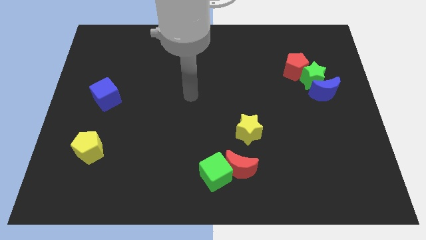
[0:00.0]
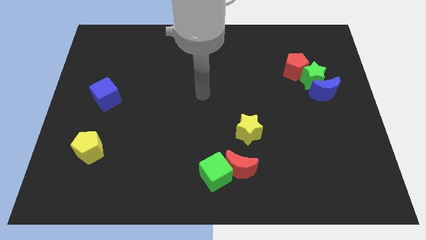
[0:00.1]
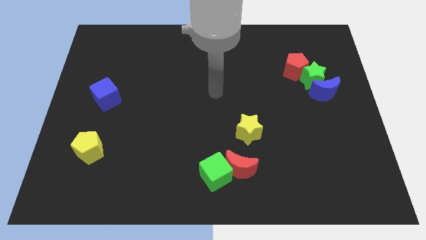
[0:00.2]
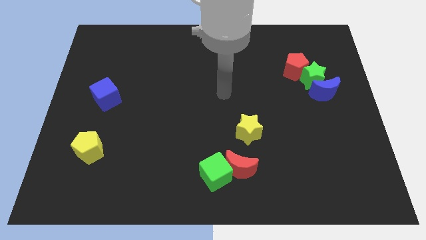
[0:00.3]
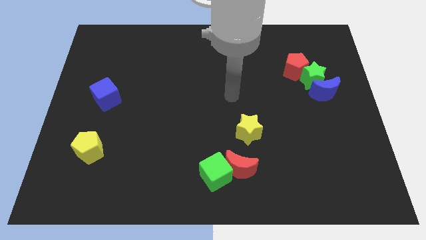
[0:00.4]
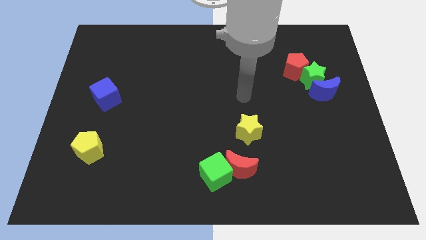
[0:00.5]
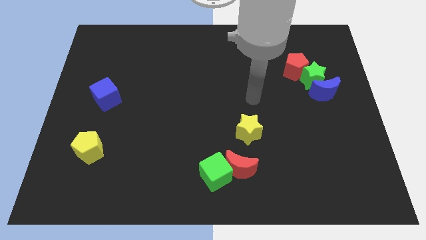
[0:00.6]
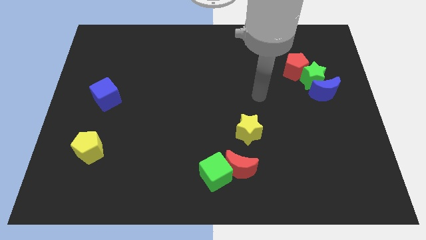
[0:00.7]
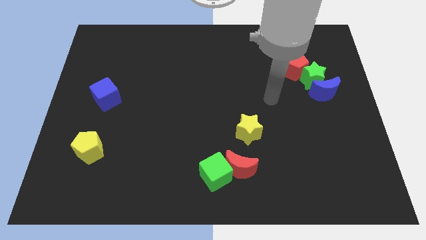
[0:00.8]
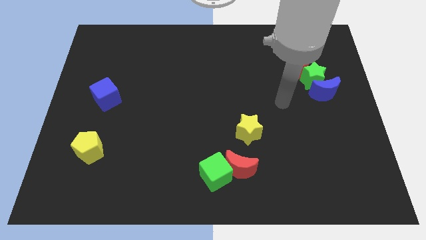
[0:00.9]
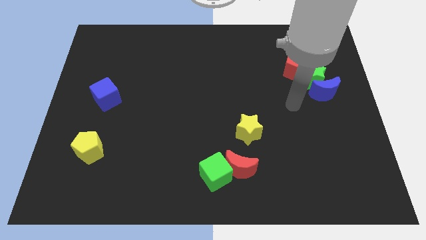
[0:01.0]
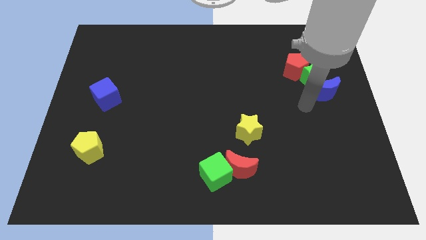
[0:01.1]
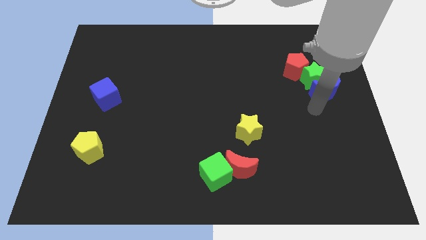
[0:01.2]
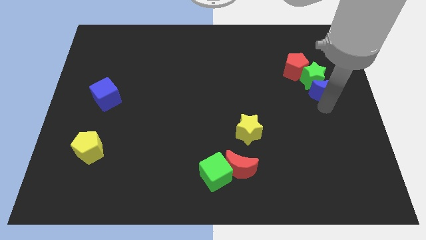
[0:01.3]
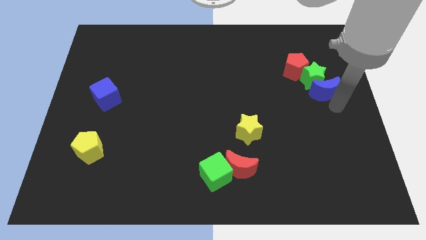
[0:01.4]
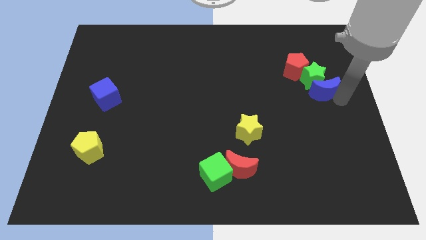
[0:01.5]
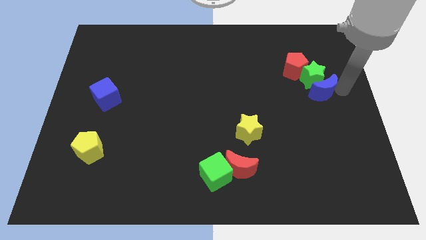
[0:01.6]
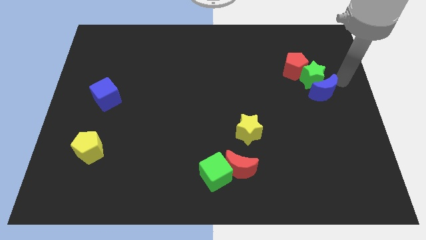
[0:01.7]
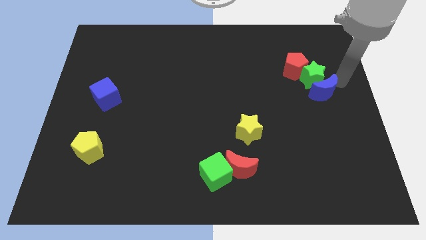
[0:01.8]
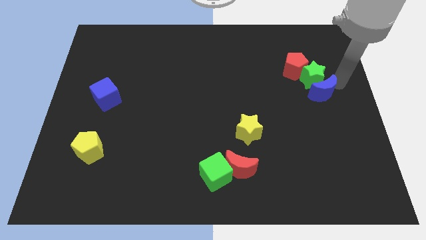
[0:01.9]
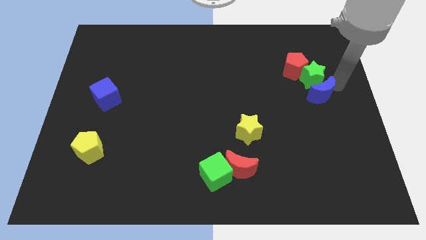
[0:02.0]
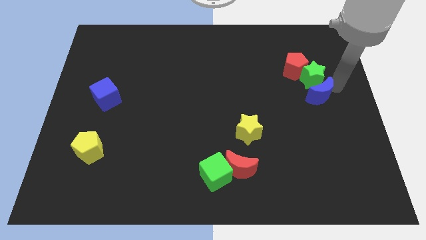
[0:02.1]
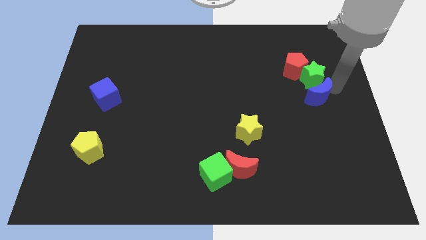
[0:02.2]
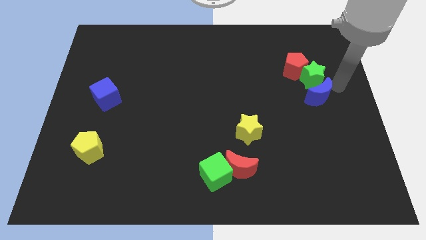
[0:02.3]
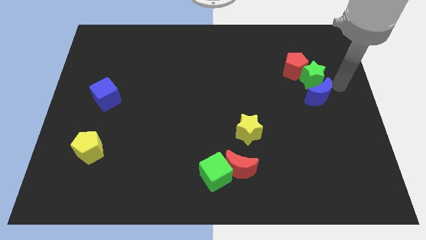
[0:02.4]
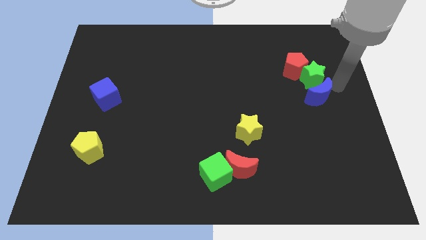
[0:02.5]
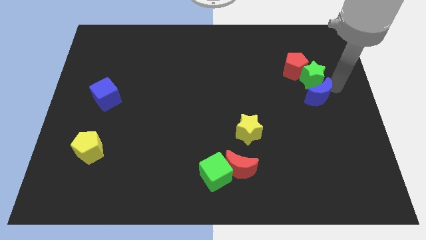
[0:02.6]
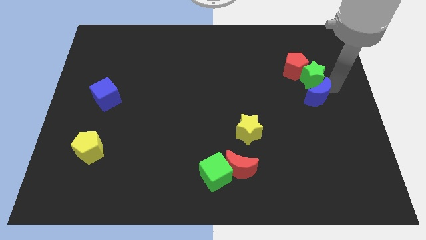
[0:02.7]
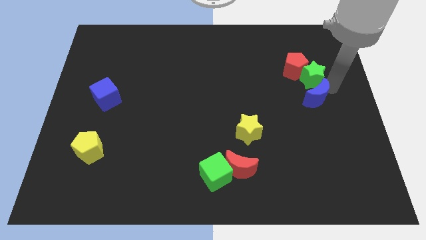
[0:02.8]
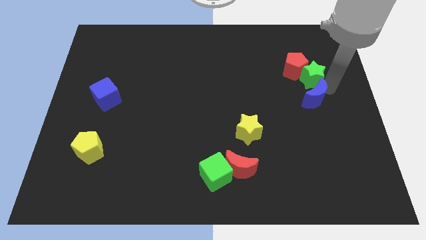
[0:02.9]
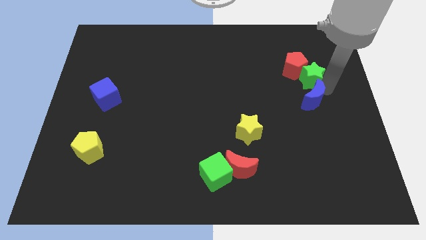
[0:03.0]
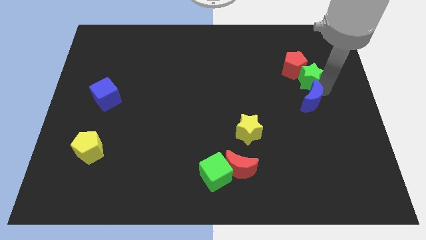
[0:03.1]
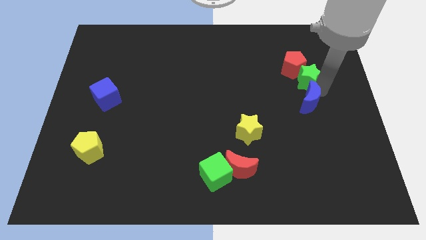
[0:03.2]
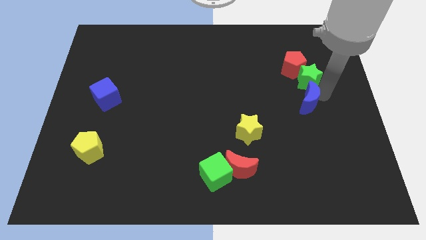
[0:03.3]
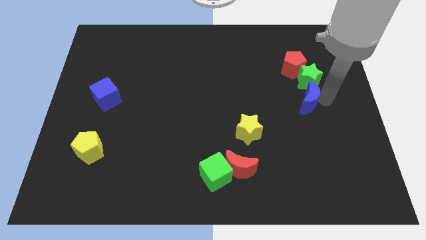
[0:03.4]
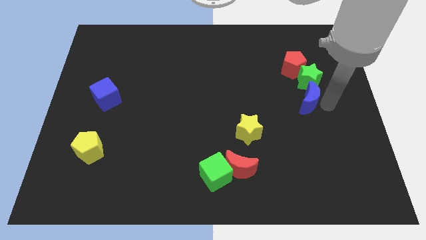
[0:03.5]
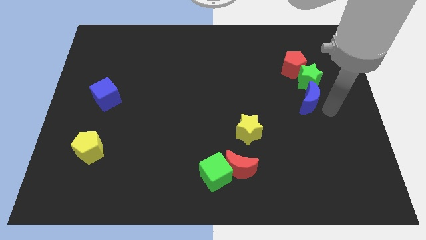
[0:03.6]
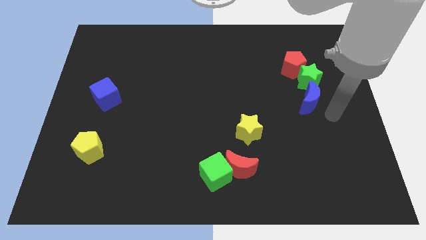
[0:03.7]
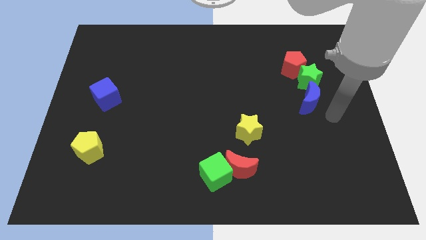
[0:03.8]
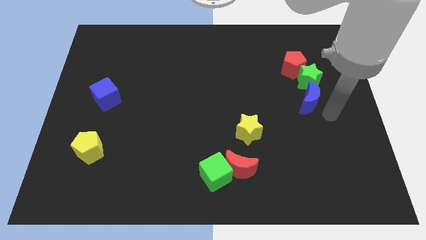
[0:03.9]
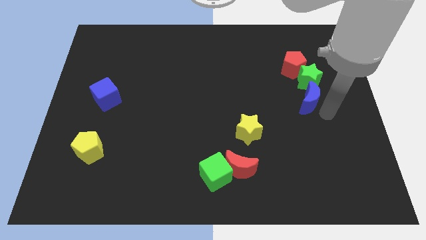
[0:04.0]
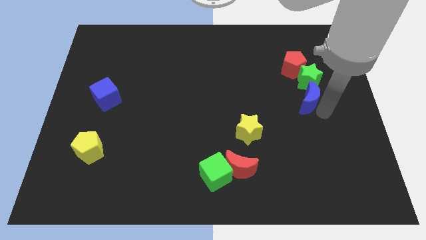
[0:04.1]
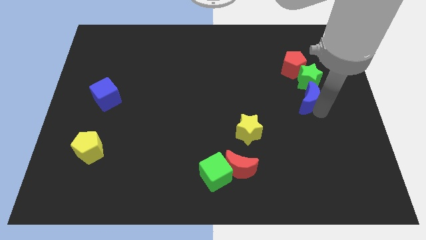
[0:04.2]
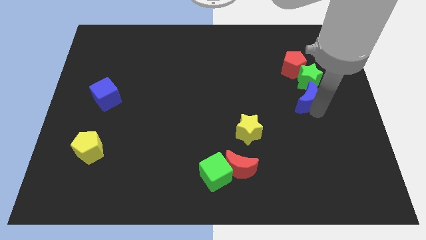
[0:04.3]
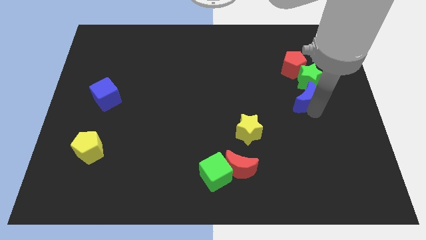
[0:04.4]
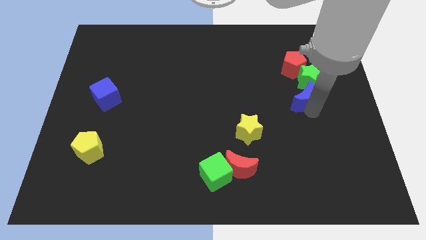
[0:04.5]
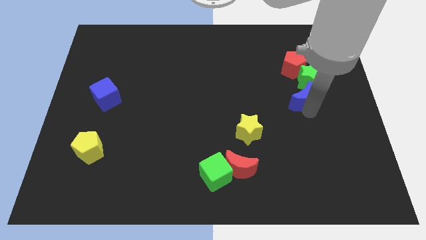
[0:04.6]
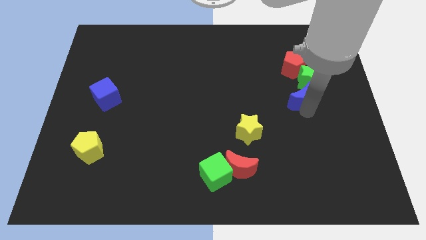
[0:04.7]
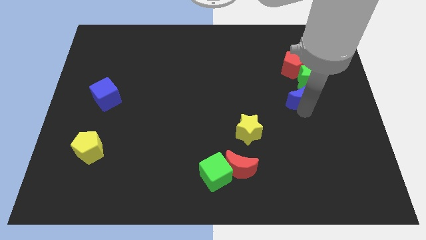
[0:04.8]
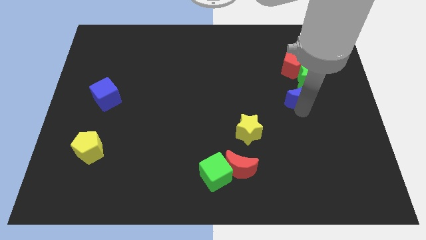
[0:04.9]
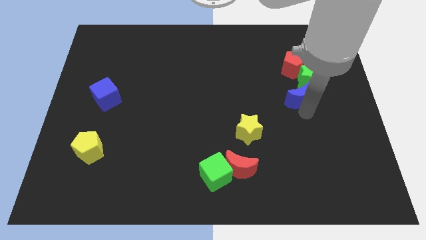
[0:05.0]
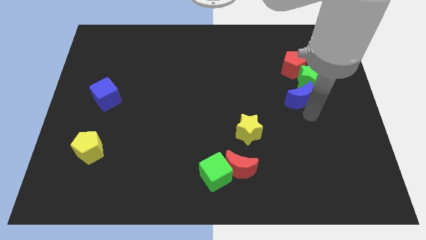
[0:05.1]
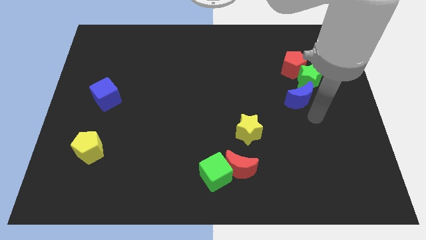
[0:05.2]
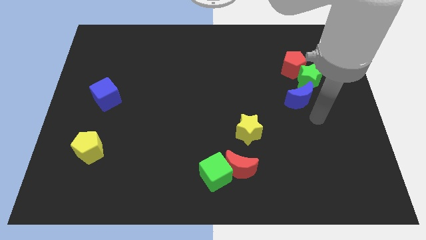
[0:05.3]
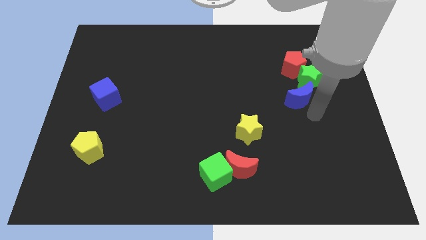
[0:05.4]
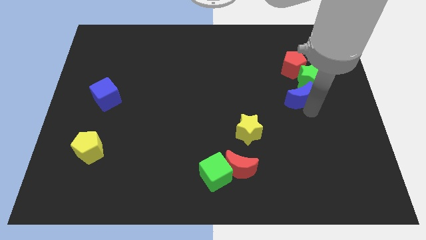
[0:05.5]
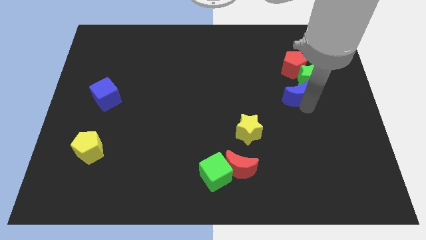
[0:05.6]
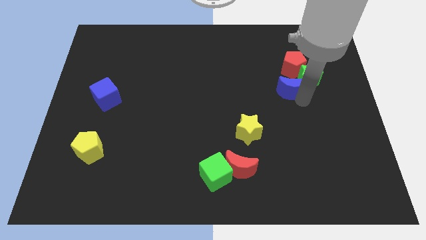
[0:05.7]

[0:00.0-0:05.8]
push the blue moon to the left side of the green star

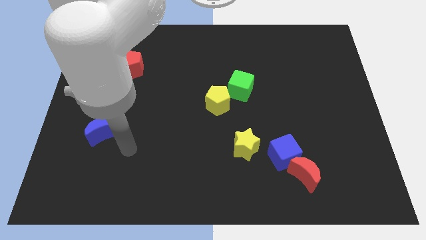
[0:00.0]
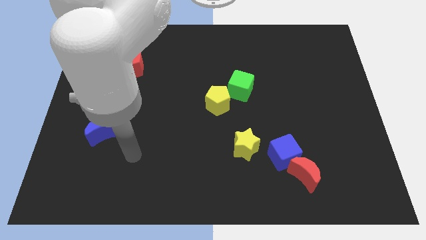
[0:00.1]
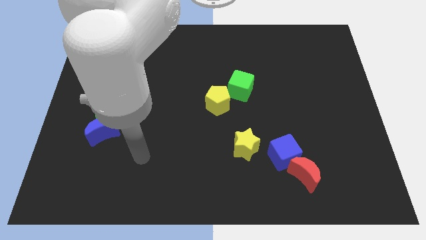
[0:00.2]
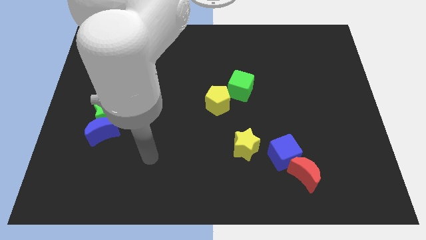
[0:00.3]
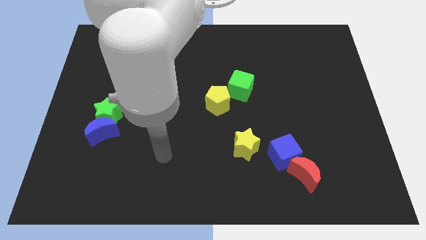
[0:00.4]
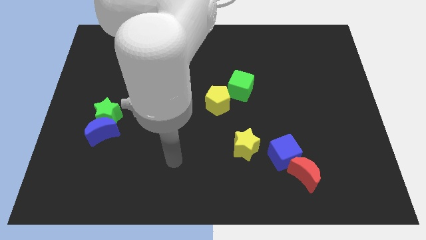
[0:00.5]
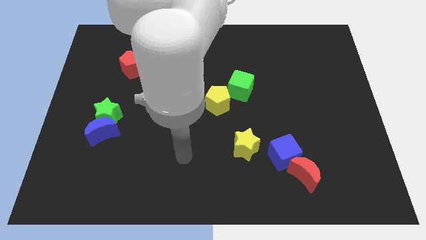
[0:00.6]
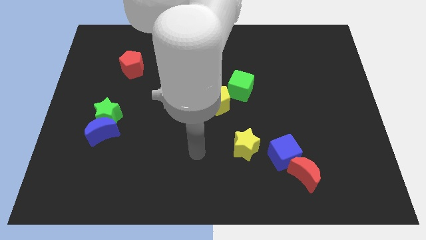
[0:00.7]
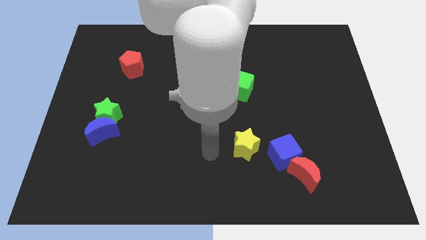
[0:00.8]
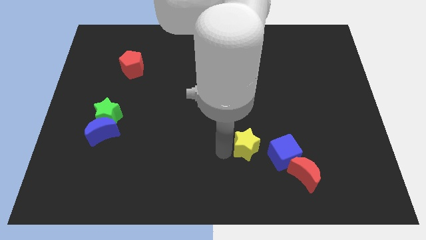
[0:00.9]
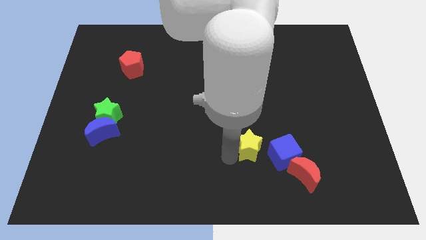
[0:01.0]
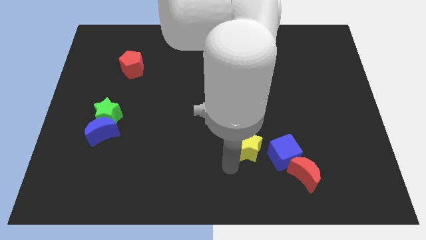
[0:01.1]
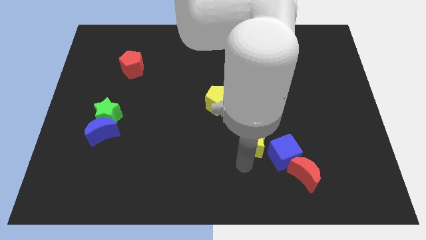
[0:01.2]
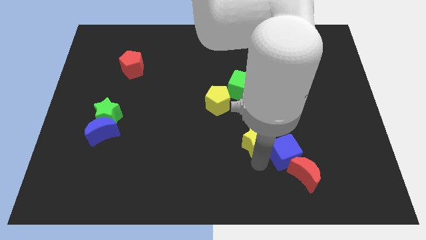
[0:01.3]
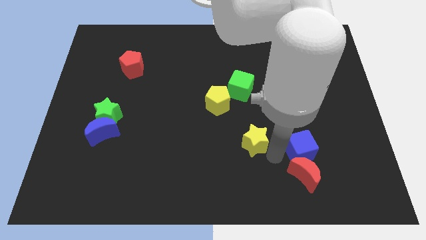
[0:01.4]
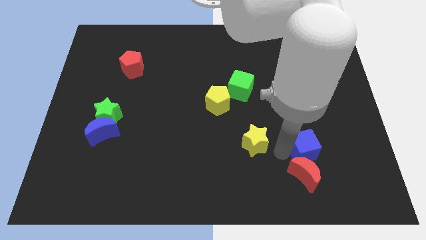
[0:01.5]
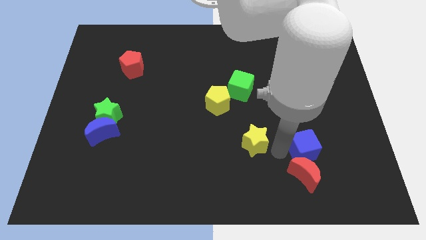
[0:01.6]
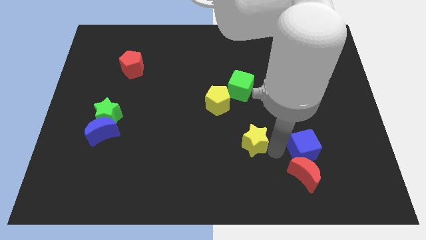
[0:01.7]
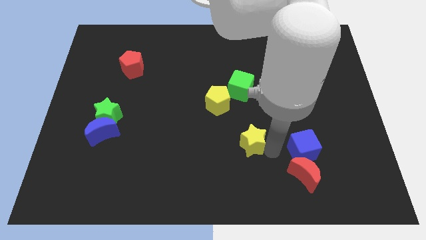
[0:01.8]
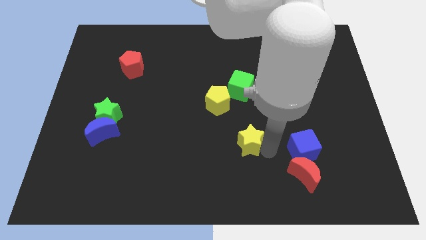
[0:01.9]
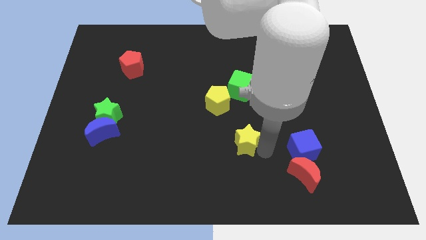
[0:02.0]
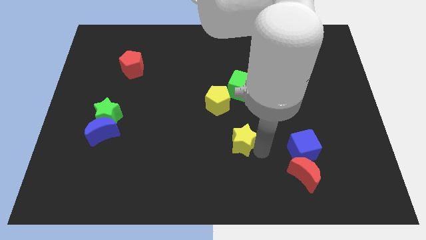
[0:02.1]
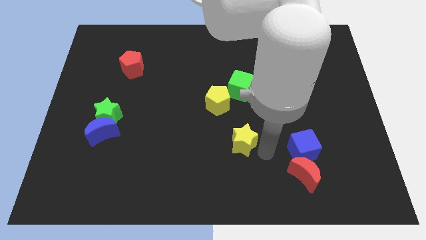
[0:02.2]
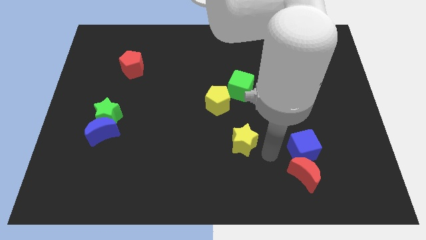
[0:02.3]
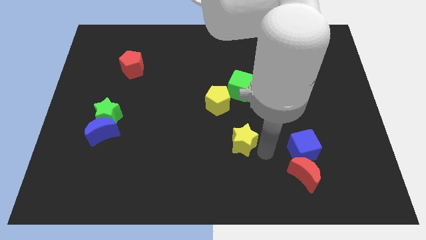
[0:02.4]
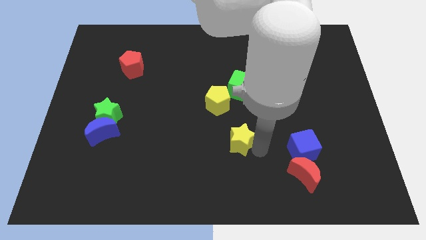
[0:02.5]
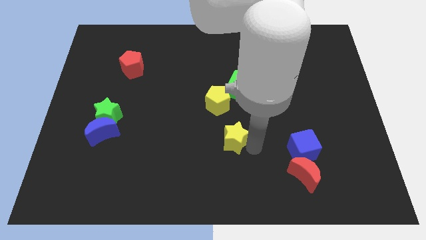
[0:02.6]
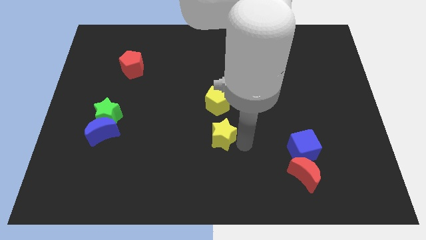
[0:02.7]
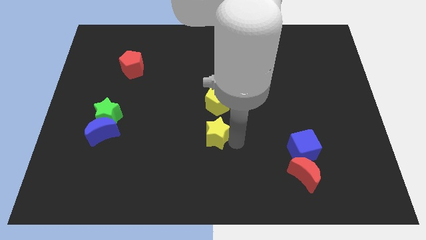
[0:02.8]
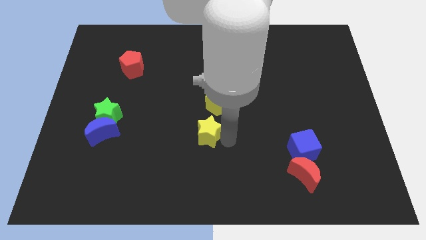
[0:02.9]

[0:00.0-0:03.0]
put the yellow star to the bottom left of the yellow pentagon
